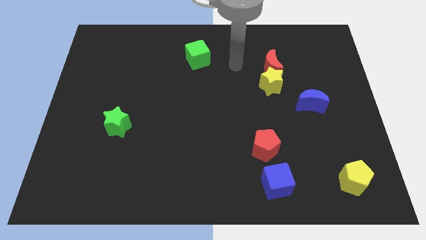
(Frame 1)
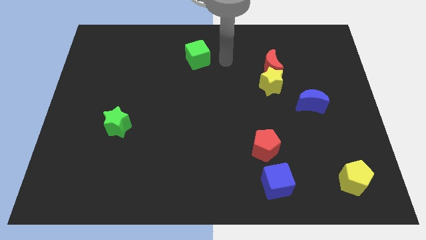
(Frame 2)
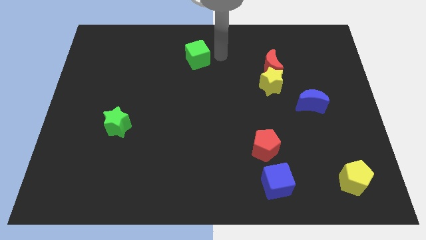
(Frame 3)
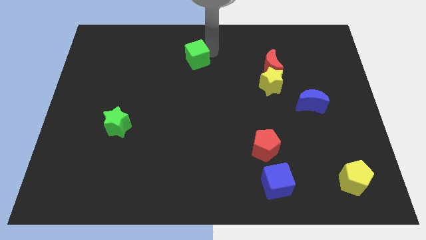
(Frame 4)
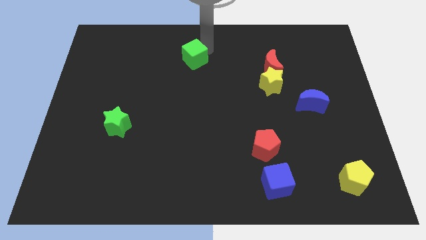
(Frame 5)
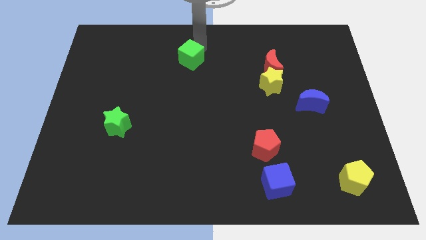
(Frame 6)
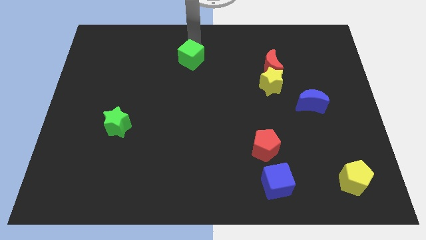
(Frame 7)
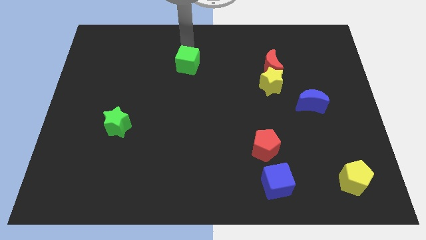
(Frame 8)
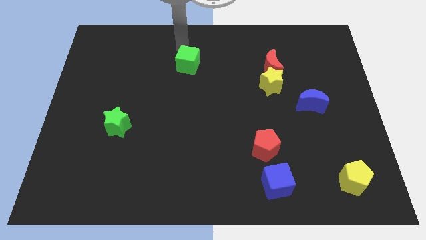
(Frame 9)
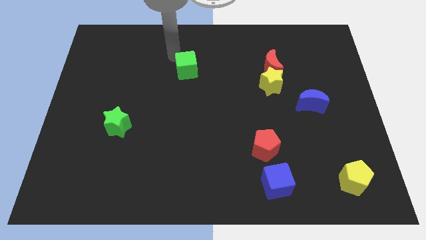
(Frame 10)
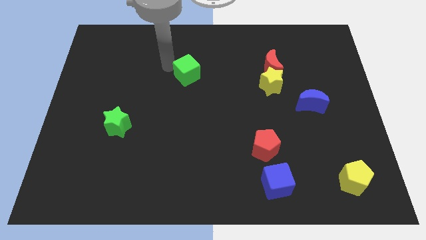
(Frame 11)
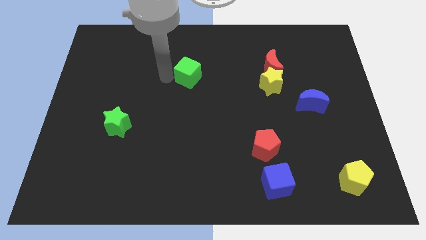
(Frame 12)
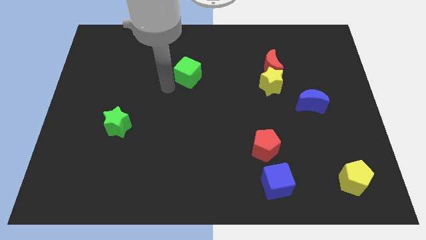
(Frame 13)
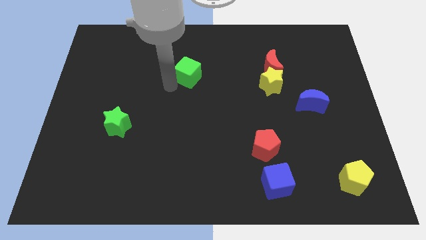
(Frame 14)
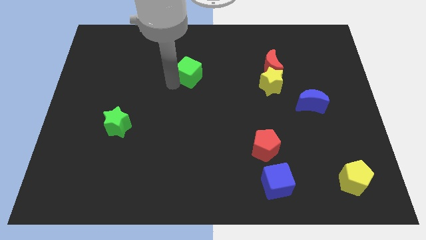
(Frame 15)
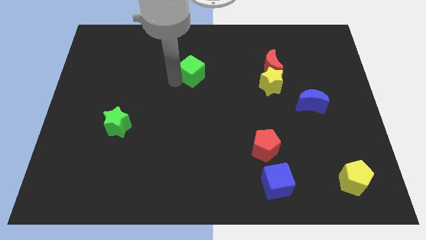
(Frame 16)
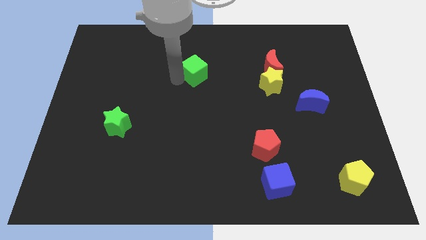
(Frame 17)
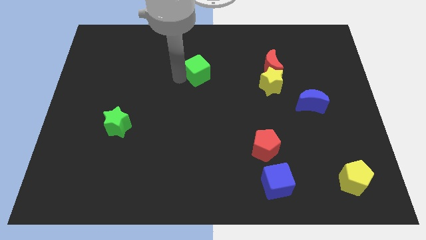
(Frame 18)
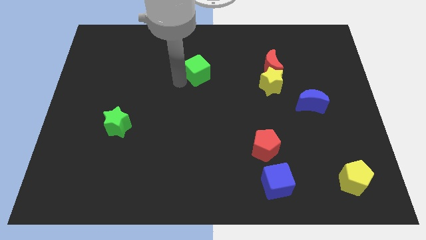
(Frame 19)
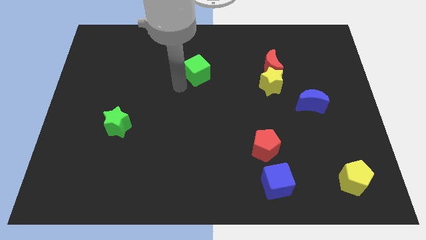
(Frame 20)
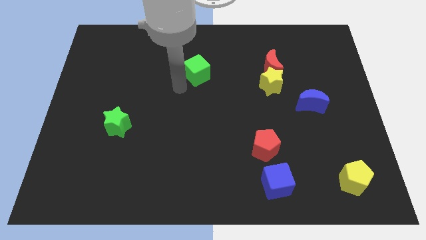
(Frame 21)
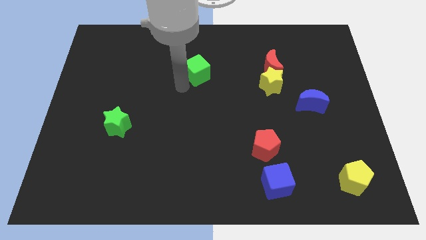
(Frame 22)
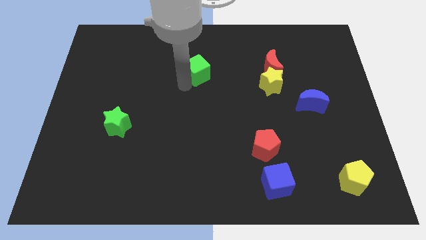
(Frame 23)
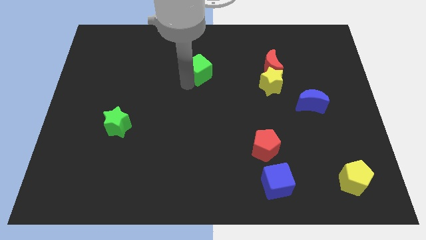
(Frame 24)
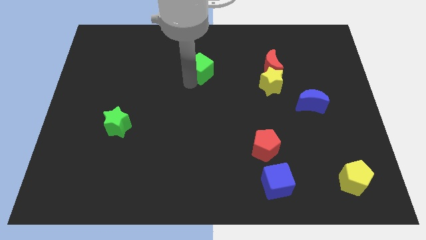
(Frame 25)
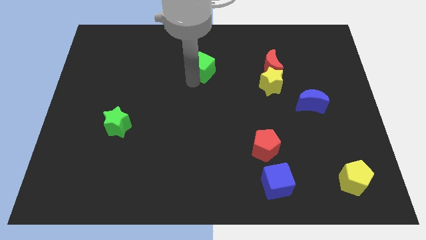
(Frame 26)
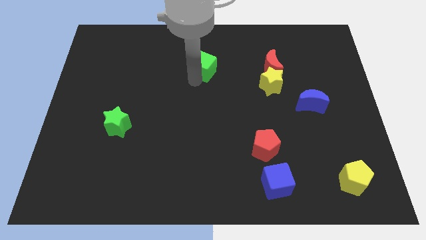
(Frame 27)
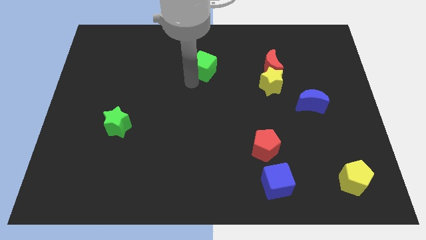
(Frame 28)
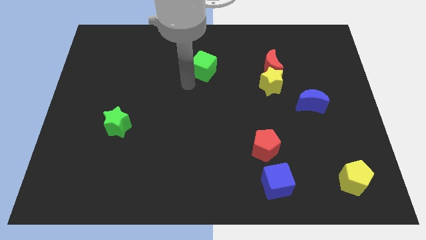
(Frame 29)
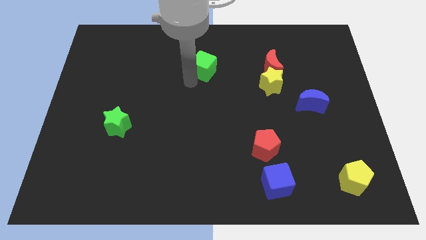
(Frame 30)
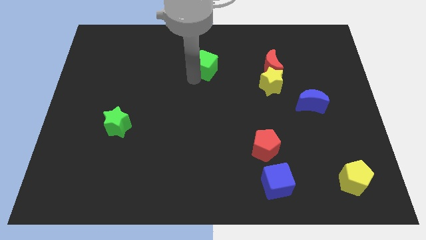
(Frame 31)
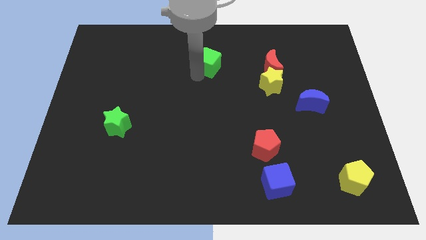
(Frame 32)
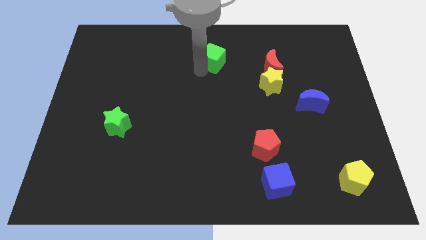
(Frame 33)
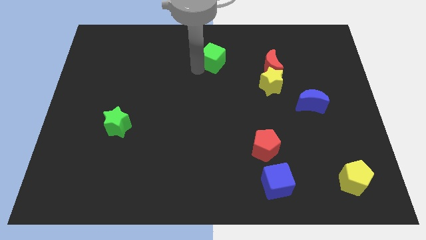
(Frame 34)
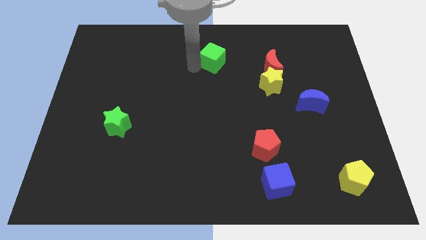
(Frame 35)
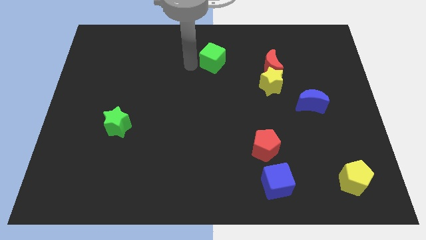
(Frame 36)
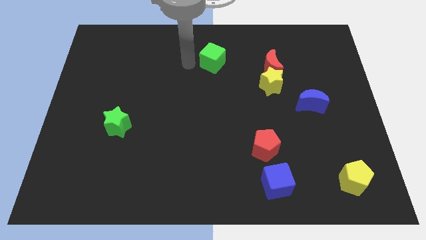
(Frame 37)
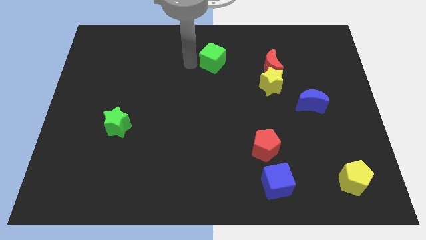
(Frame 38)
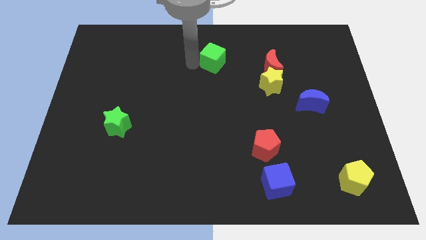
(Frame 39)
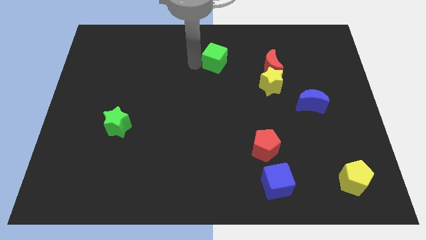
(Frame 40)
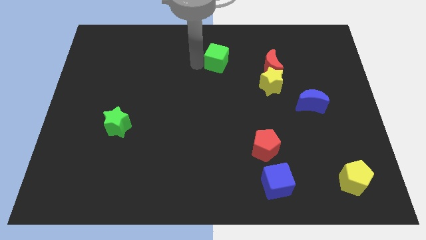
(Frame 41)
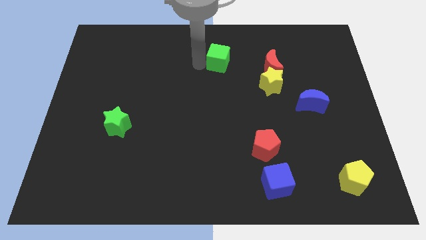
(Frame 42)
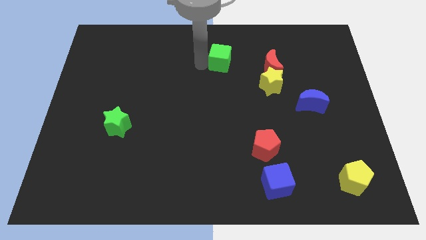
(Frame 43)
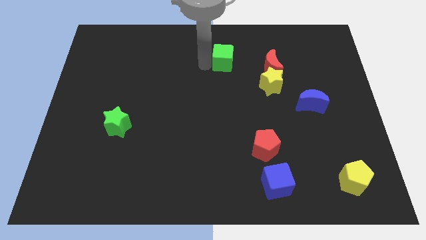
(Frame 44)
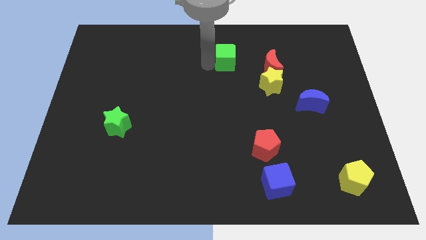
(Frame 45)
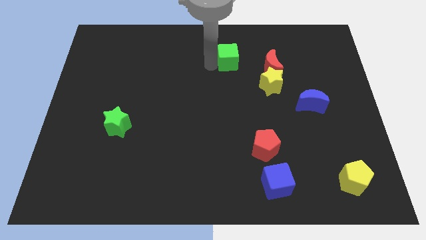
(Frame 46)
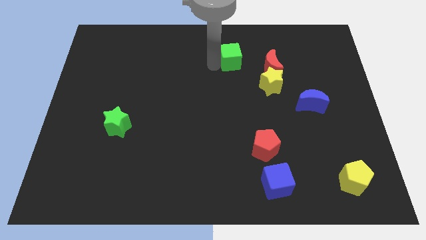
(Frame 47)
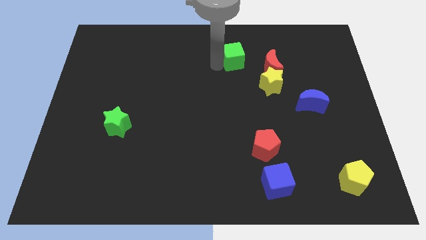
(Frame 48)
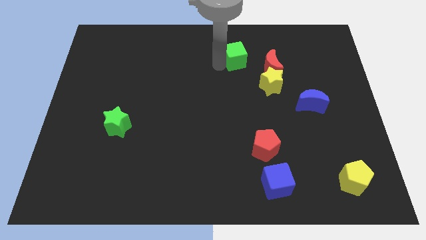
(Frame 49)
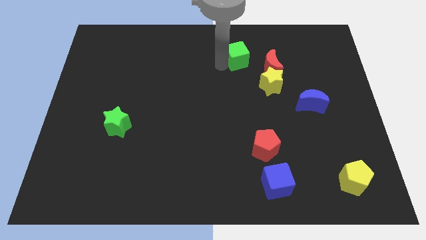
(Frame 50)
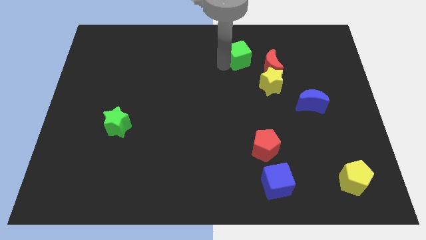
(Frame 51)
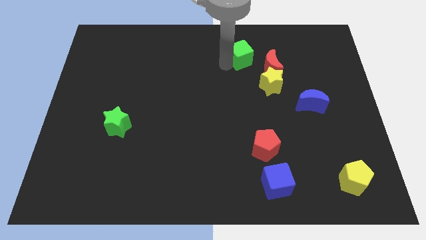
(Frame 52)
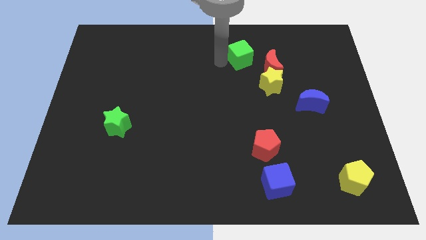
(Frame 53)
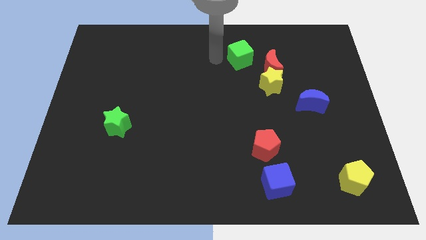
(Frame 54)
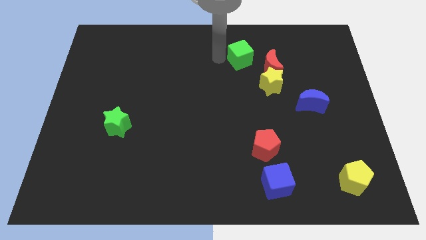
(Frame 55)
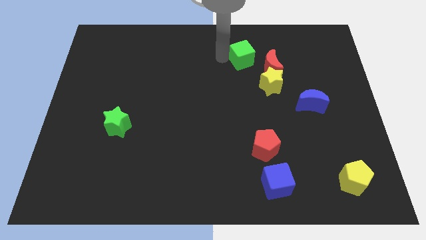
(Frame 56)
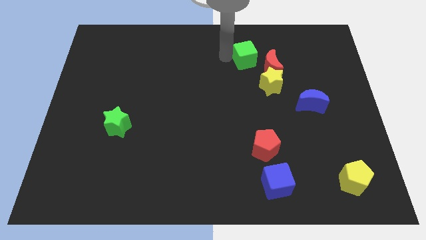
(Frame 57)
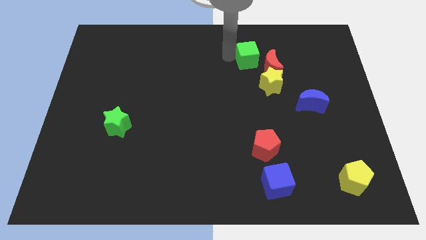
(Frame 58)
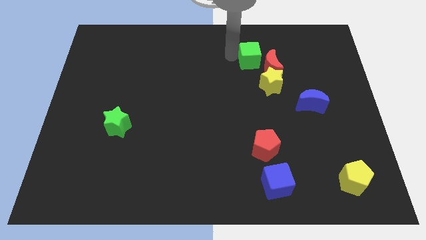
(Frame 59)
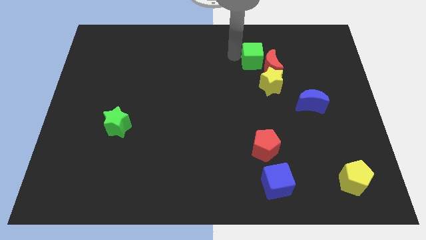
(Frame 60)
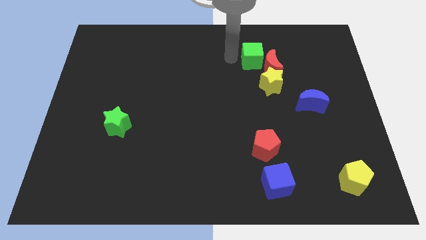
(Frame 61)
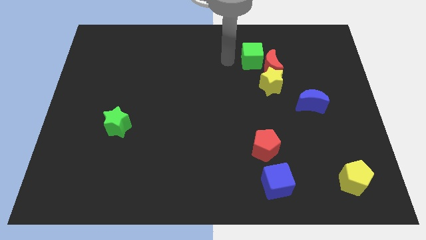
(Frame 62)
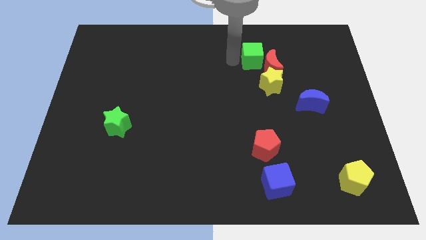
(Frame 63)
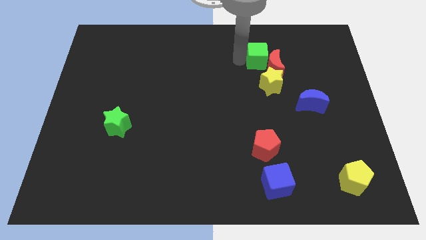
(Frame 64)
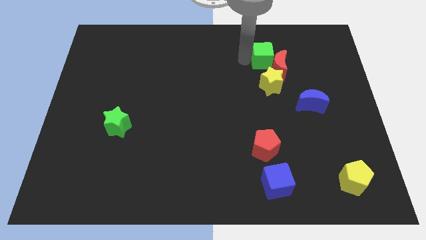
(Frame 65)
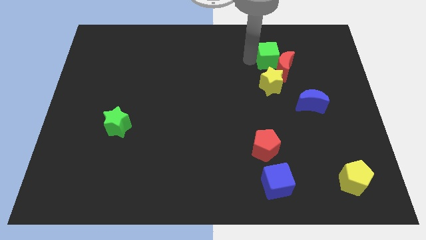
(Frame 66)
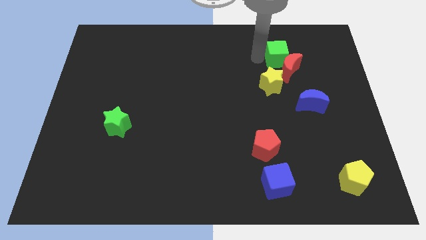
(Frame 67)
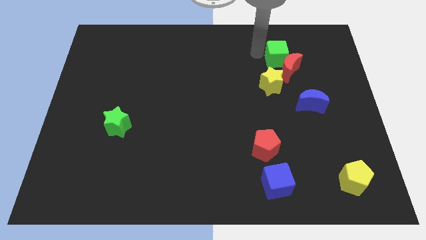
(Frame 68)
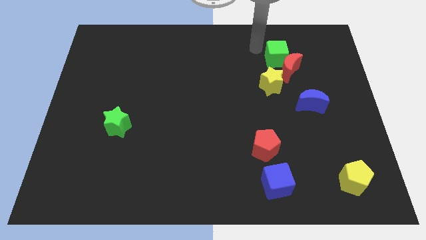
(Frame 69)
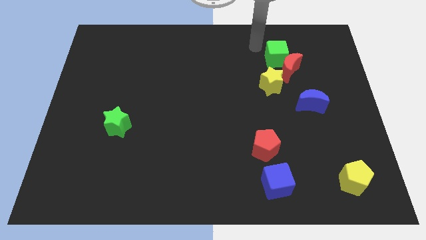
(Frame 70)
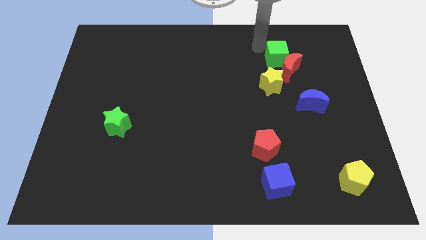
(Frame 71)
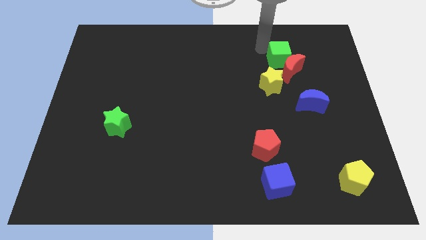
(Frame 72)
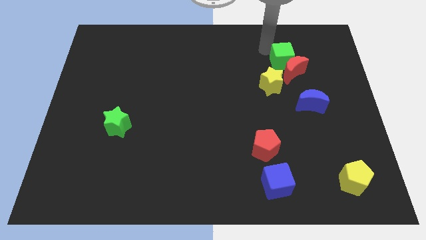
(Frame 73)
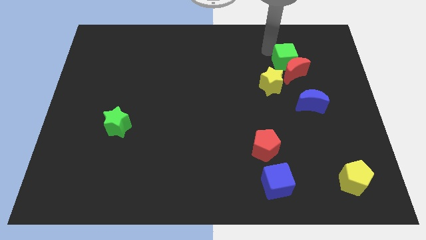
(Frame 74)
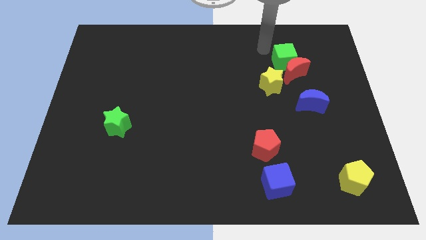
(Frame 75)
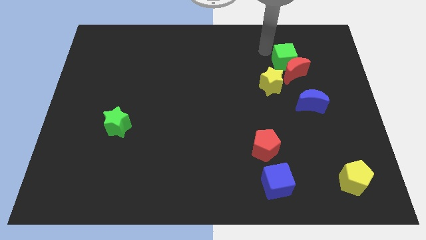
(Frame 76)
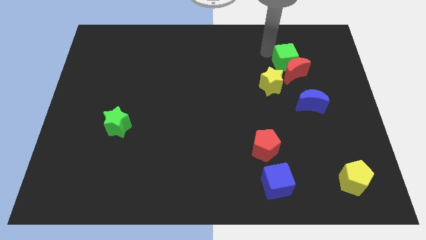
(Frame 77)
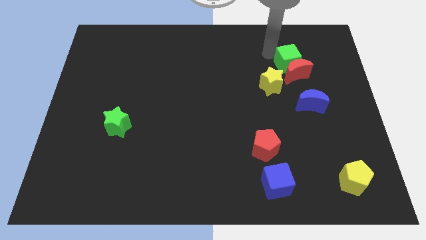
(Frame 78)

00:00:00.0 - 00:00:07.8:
put the green cube to the top side of the blue moon
